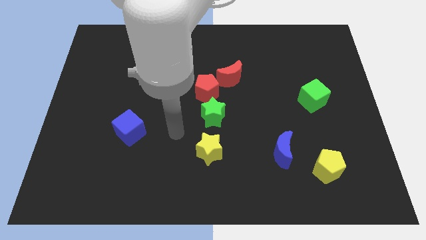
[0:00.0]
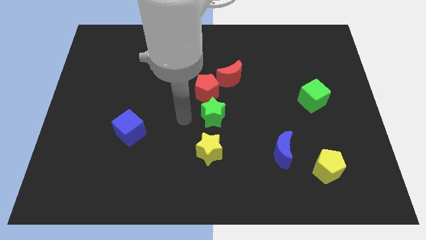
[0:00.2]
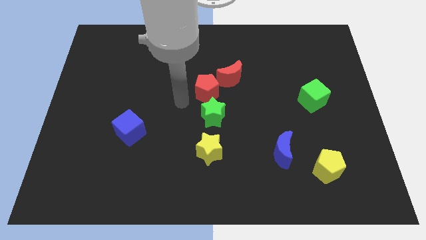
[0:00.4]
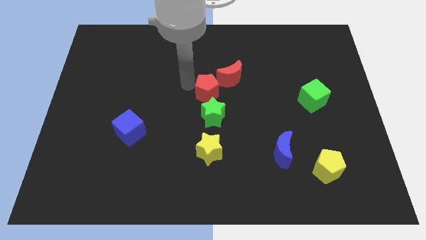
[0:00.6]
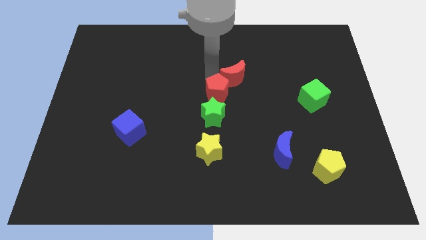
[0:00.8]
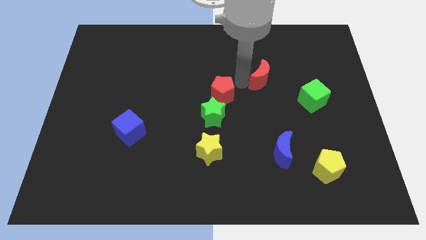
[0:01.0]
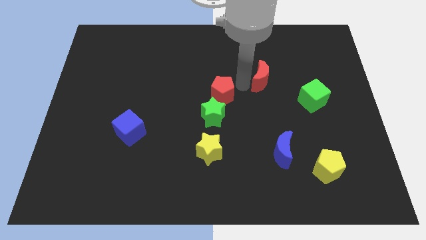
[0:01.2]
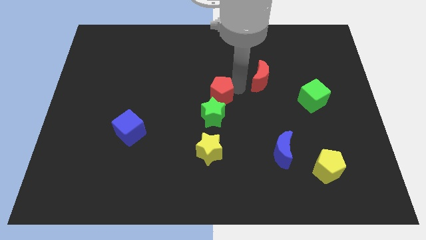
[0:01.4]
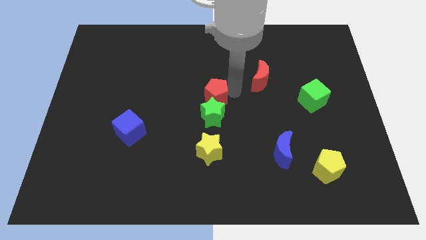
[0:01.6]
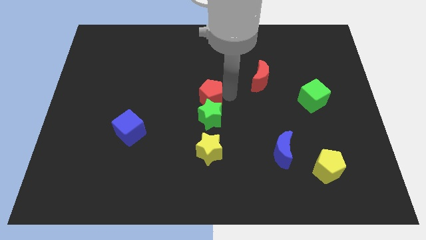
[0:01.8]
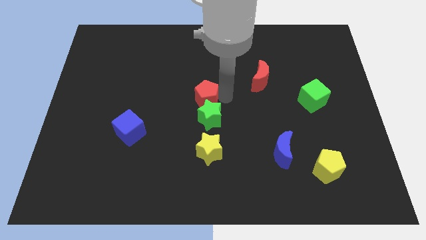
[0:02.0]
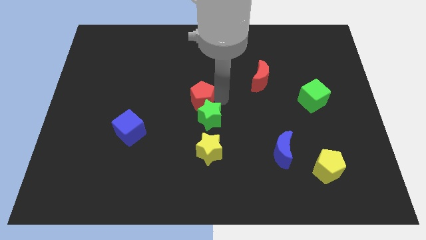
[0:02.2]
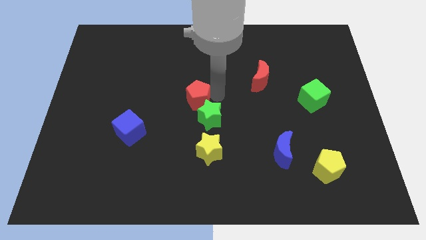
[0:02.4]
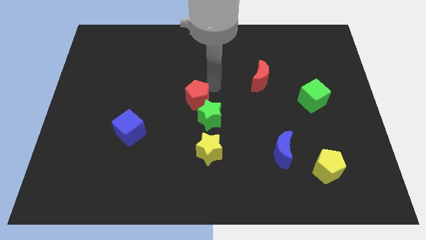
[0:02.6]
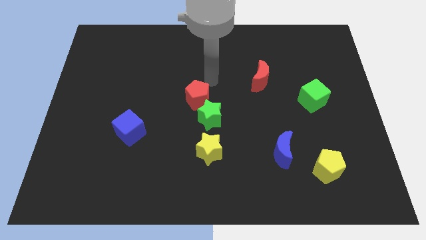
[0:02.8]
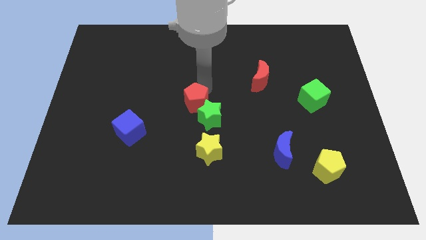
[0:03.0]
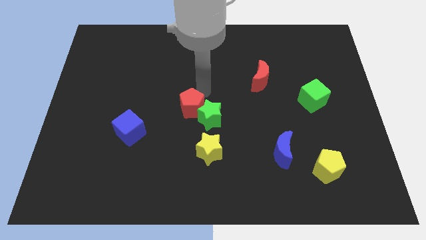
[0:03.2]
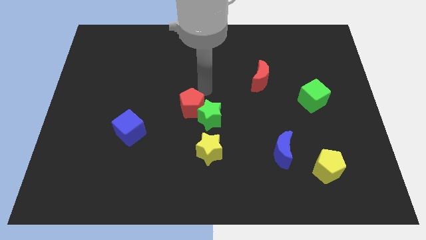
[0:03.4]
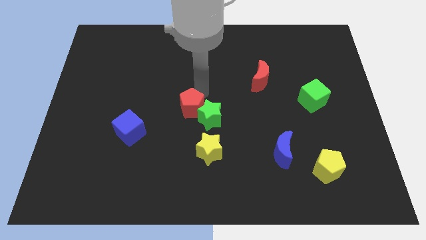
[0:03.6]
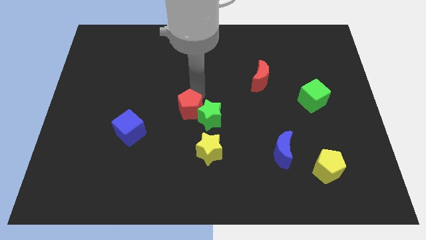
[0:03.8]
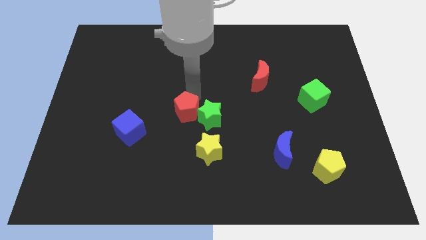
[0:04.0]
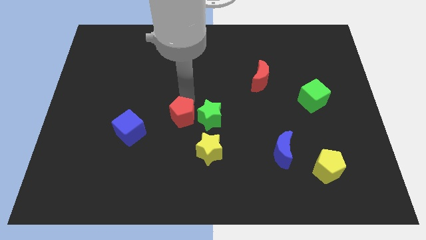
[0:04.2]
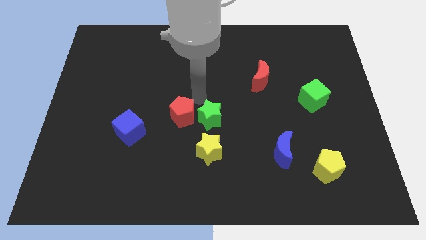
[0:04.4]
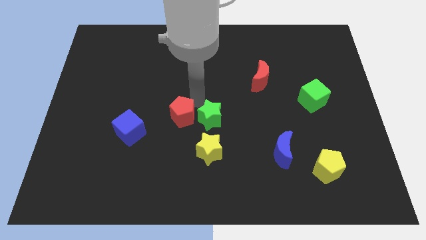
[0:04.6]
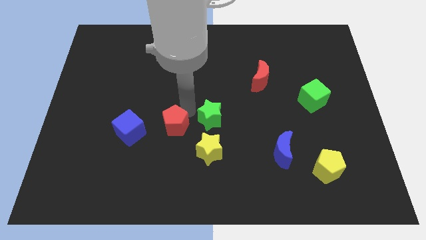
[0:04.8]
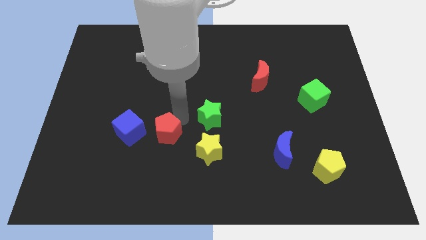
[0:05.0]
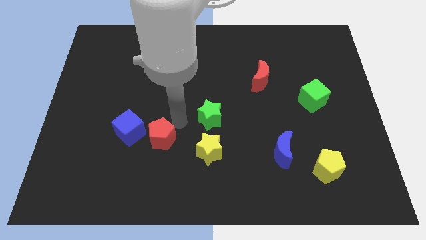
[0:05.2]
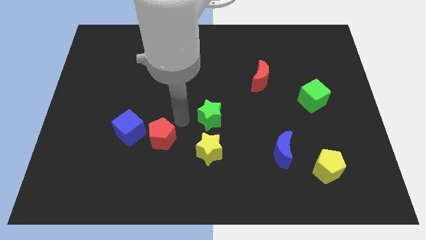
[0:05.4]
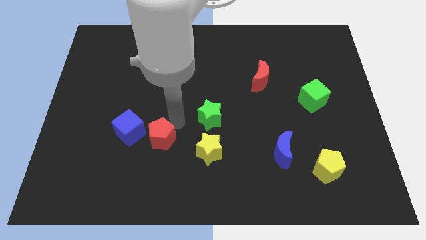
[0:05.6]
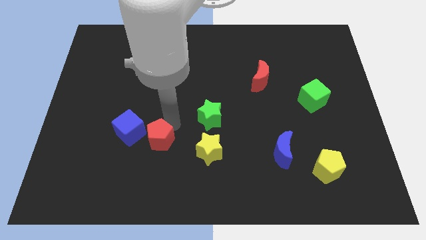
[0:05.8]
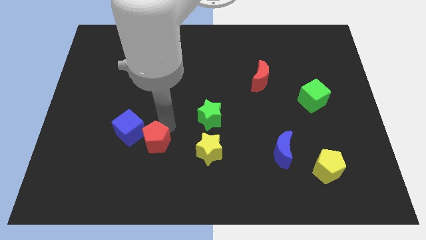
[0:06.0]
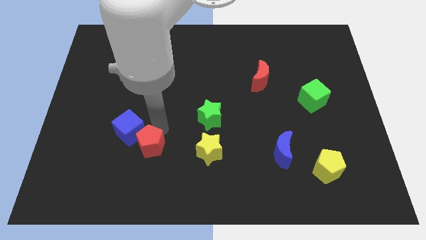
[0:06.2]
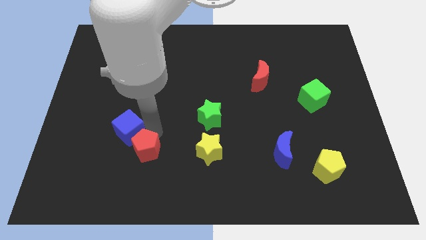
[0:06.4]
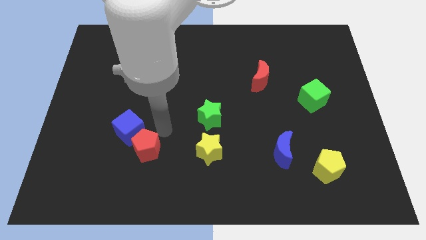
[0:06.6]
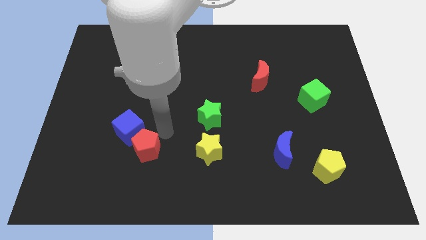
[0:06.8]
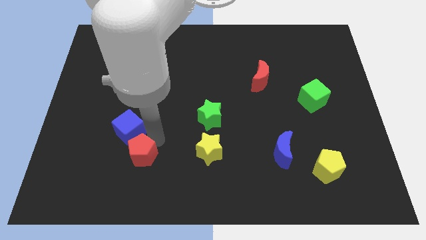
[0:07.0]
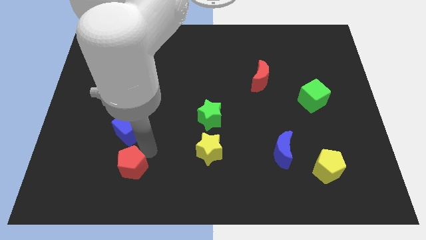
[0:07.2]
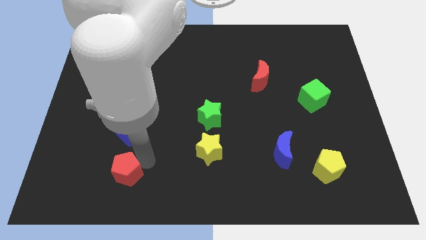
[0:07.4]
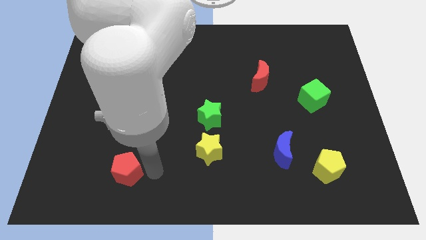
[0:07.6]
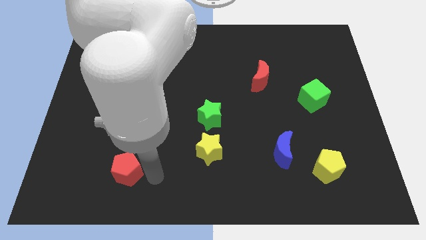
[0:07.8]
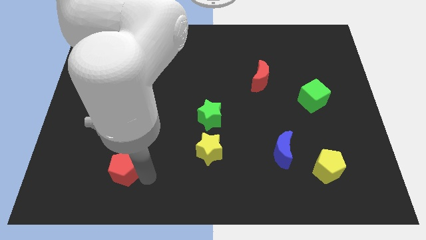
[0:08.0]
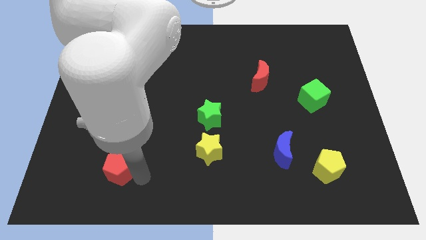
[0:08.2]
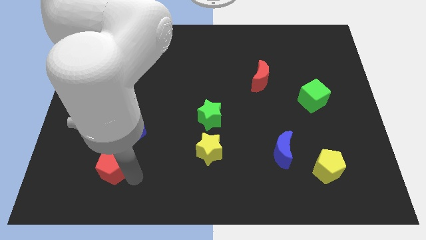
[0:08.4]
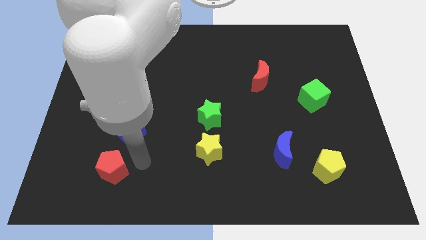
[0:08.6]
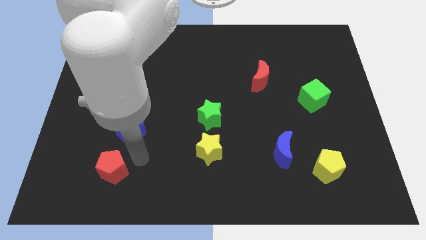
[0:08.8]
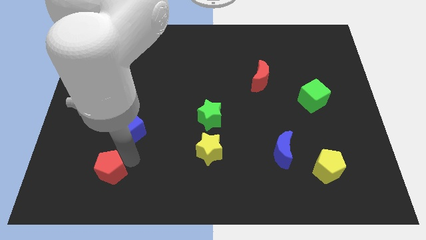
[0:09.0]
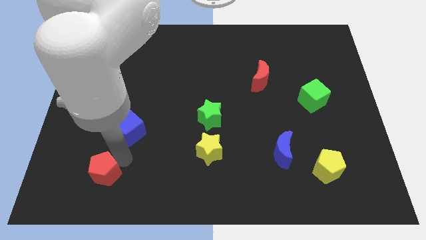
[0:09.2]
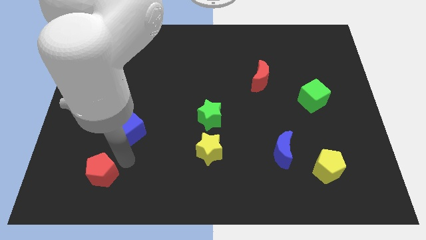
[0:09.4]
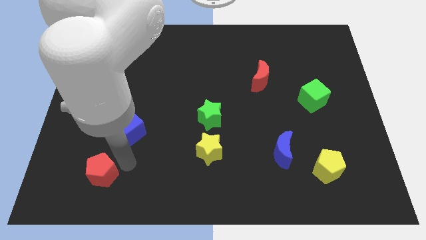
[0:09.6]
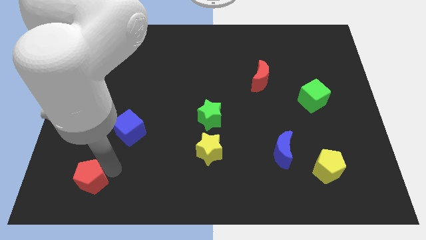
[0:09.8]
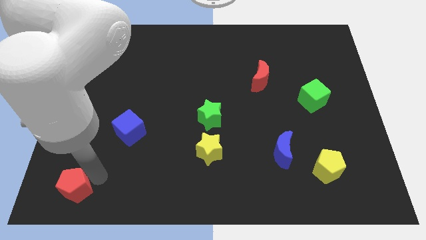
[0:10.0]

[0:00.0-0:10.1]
move the red pentagon to the bottom left of the board
